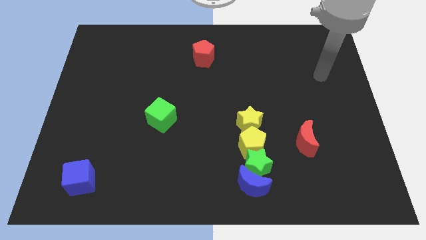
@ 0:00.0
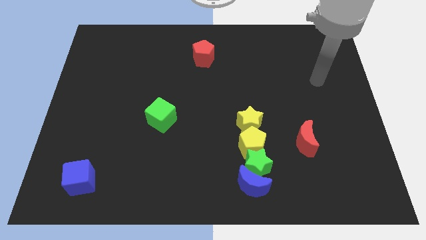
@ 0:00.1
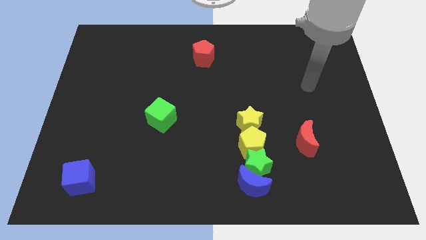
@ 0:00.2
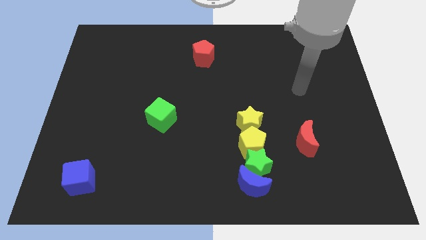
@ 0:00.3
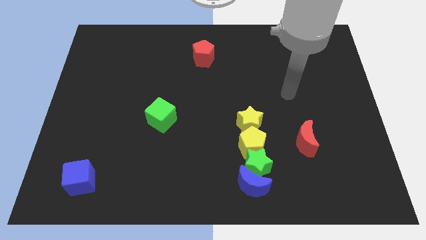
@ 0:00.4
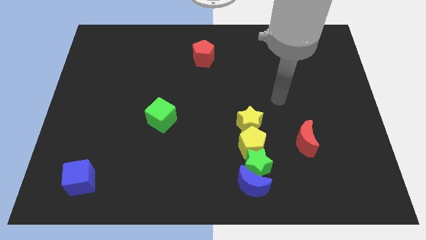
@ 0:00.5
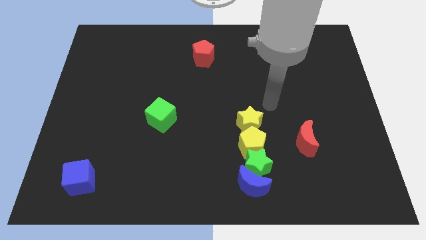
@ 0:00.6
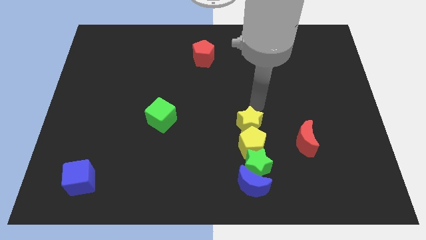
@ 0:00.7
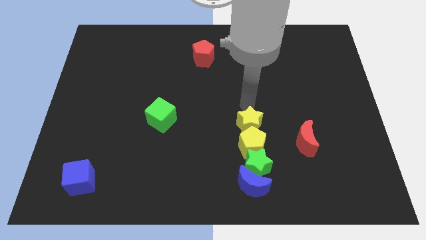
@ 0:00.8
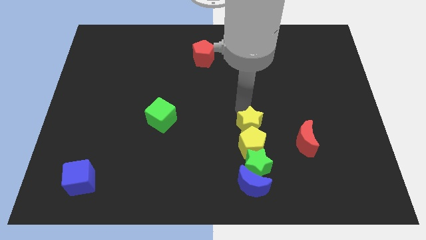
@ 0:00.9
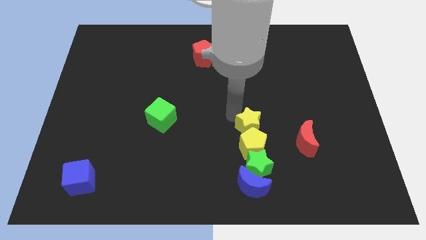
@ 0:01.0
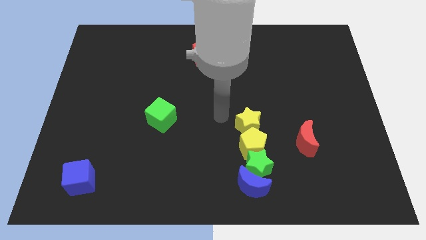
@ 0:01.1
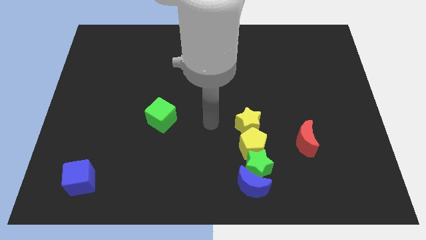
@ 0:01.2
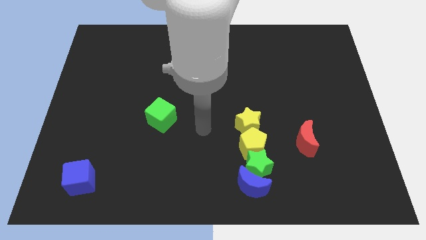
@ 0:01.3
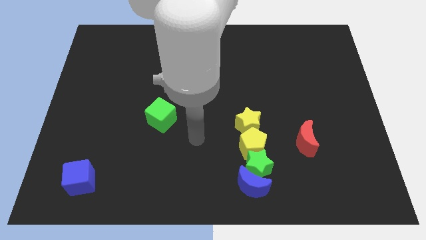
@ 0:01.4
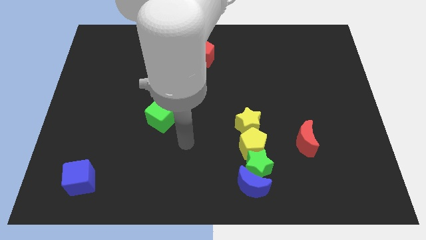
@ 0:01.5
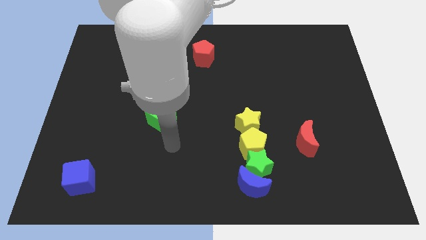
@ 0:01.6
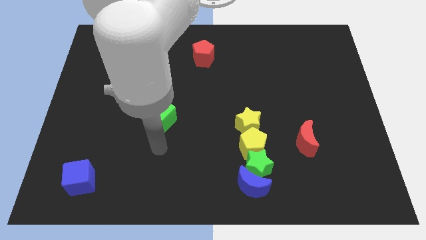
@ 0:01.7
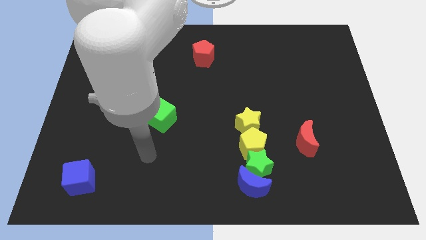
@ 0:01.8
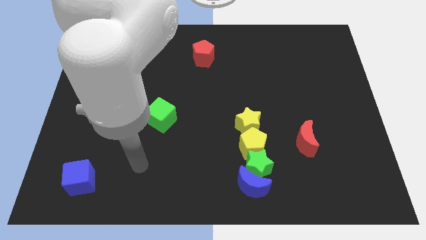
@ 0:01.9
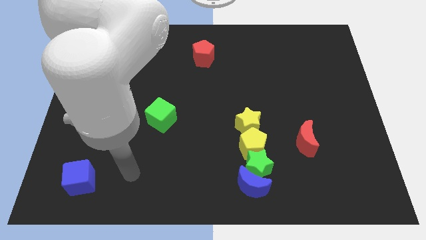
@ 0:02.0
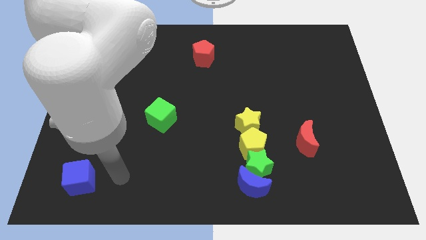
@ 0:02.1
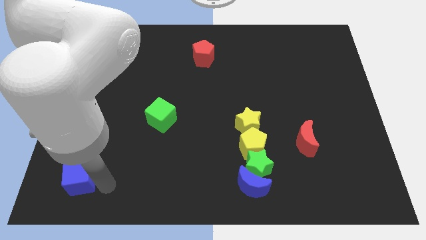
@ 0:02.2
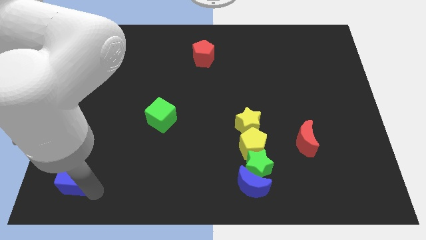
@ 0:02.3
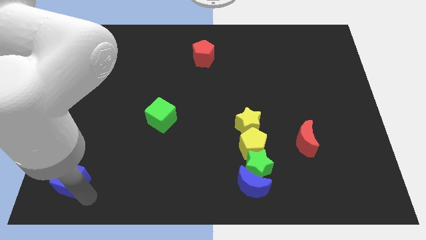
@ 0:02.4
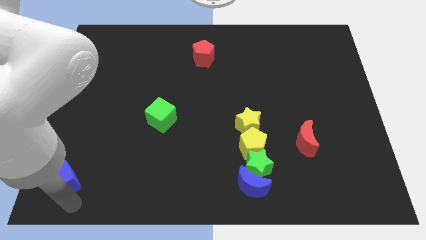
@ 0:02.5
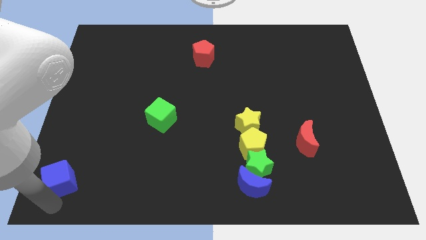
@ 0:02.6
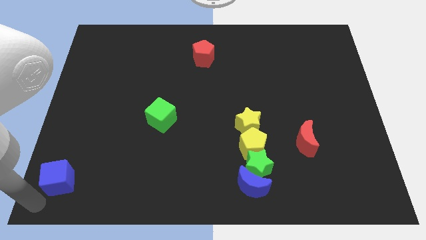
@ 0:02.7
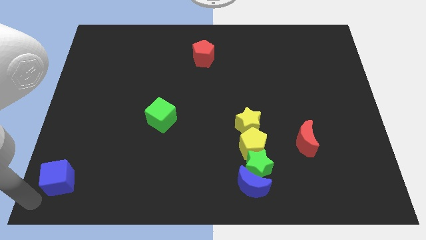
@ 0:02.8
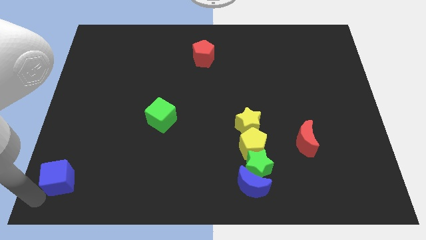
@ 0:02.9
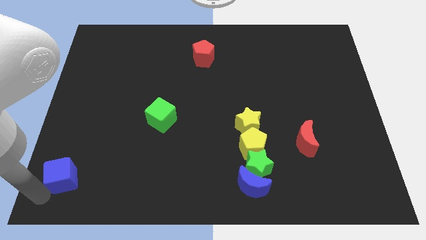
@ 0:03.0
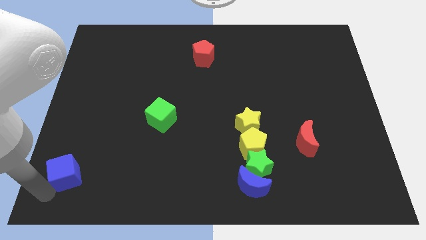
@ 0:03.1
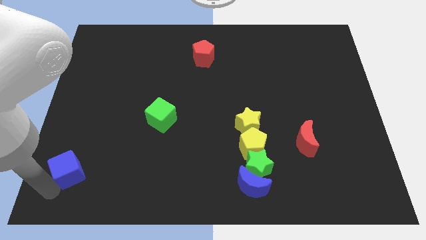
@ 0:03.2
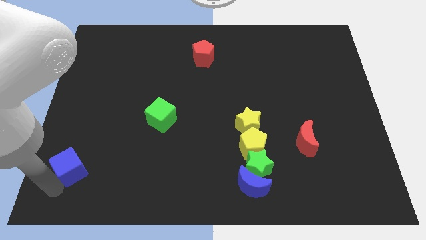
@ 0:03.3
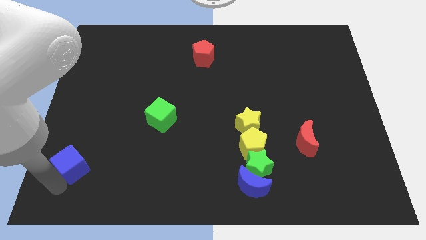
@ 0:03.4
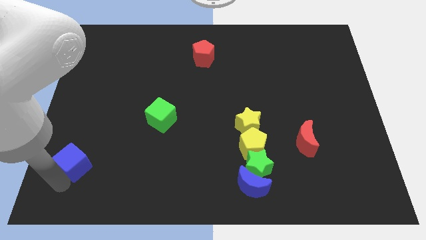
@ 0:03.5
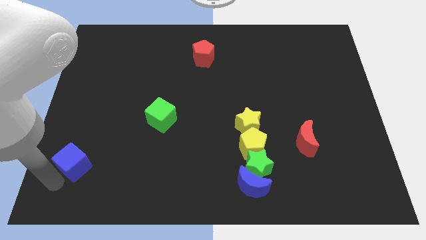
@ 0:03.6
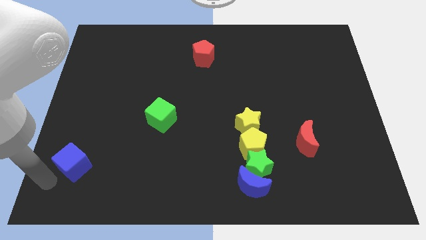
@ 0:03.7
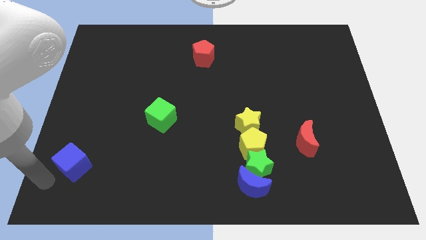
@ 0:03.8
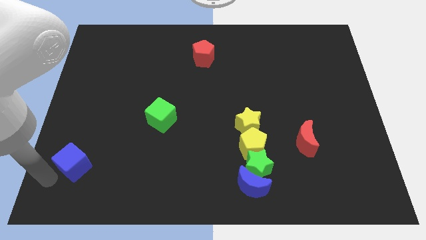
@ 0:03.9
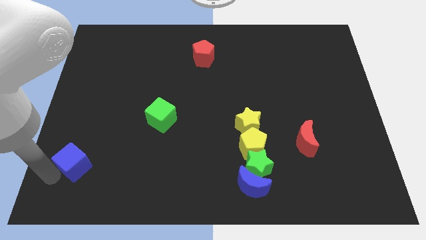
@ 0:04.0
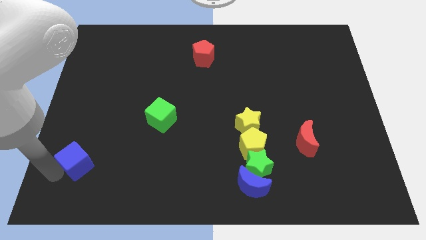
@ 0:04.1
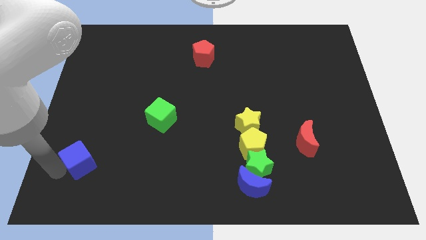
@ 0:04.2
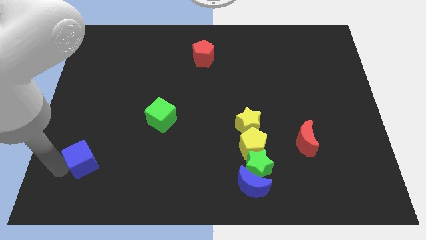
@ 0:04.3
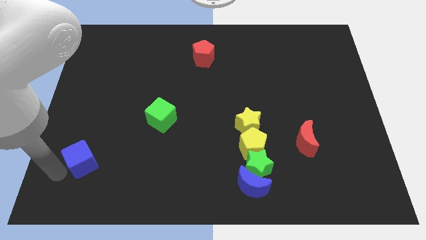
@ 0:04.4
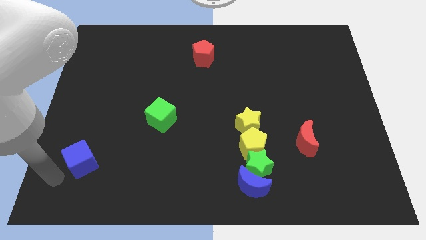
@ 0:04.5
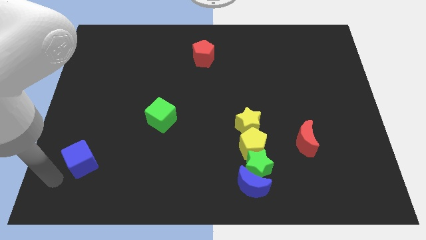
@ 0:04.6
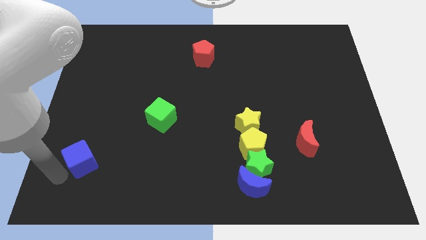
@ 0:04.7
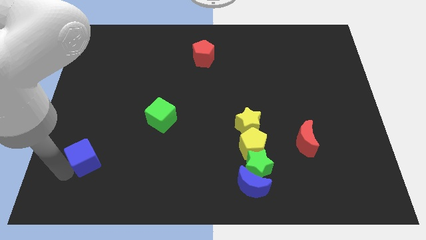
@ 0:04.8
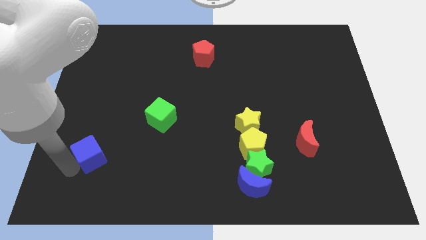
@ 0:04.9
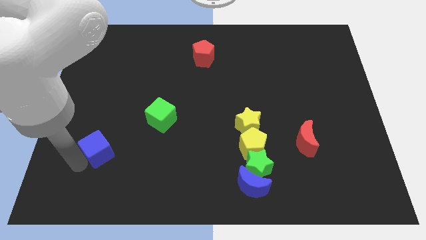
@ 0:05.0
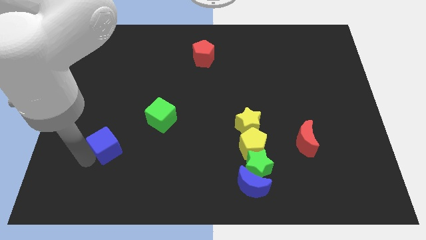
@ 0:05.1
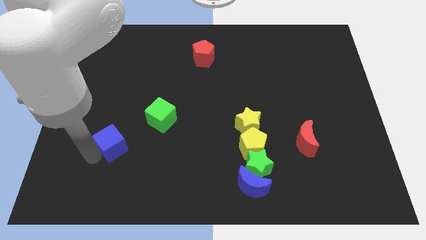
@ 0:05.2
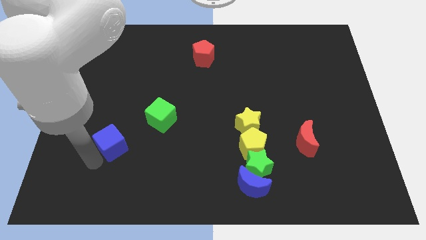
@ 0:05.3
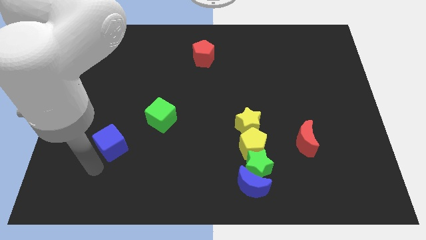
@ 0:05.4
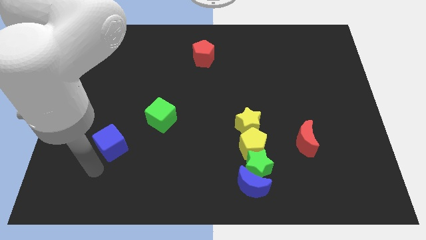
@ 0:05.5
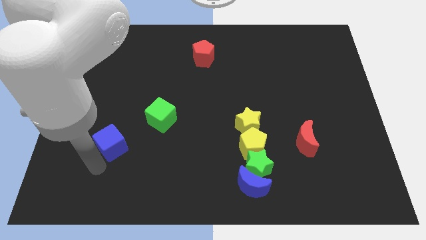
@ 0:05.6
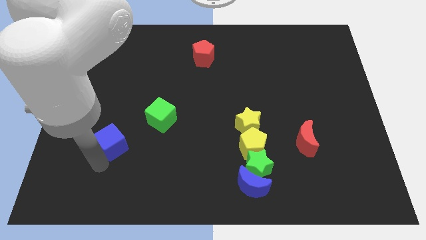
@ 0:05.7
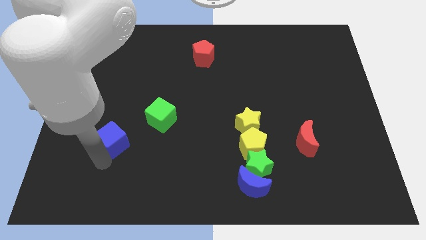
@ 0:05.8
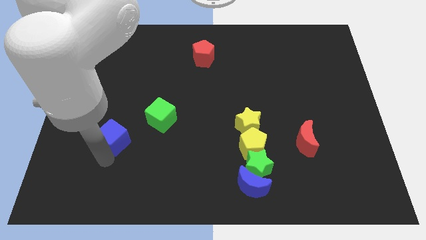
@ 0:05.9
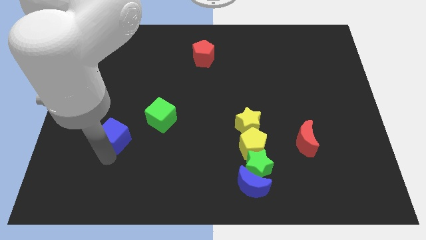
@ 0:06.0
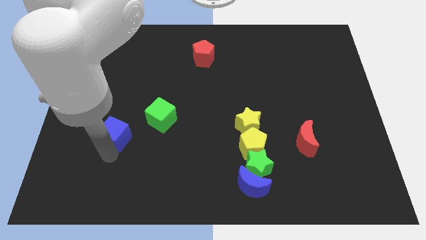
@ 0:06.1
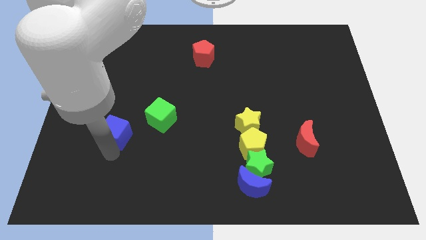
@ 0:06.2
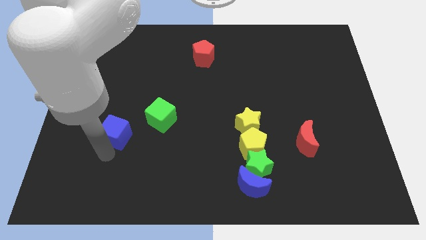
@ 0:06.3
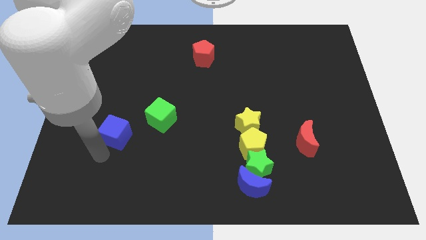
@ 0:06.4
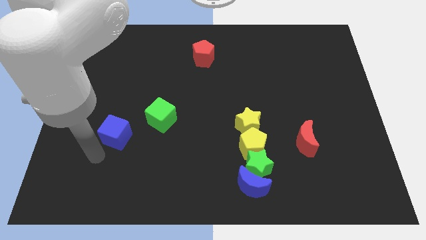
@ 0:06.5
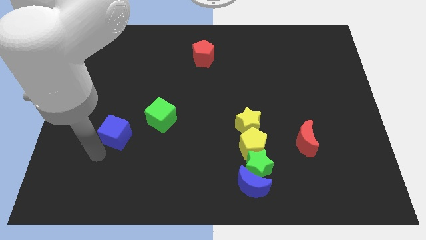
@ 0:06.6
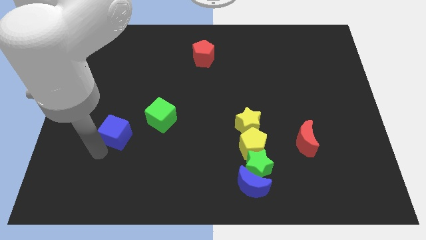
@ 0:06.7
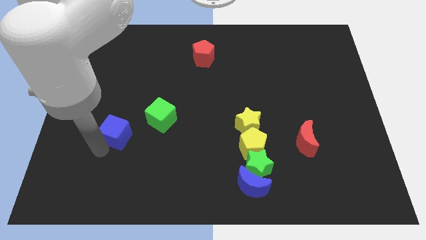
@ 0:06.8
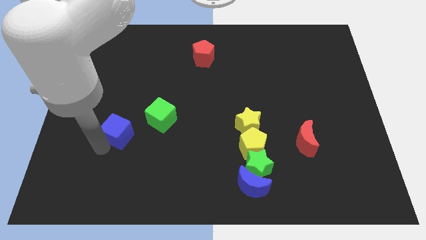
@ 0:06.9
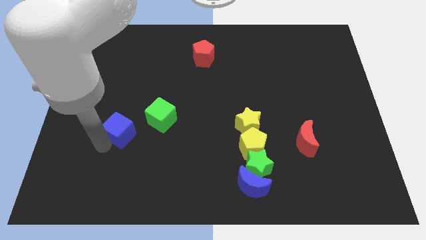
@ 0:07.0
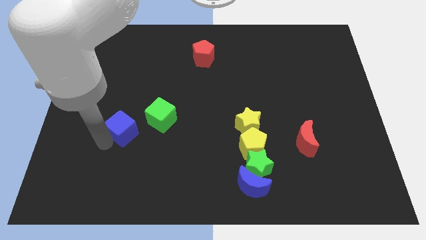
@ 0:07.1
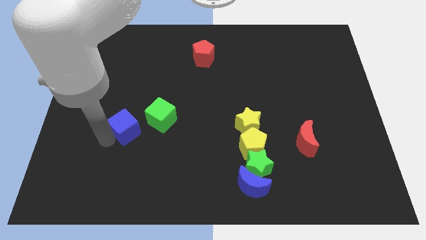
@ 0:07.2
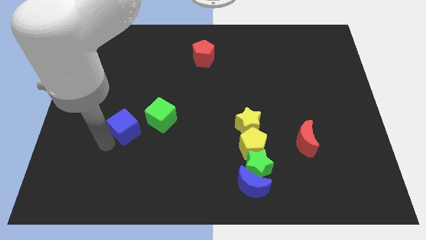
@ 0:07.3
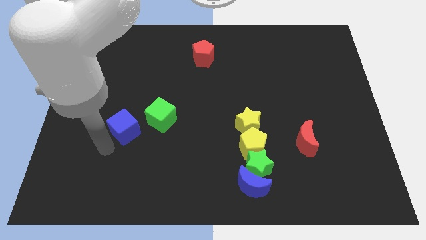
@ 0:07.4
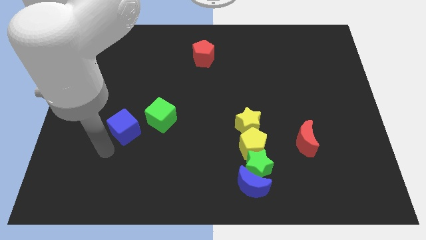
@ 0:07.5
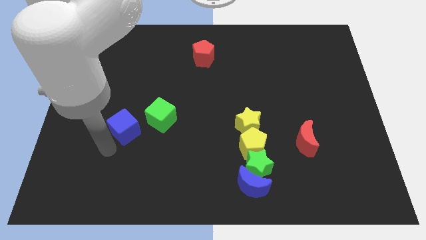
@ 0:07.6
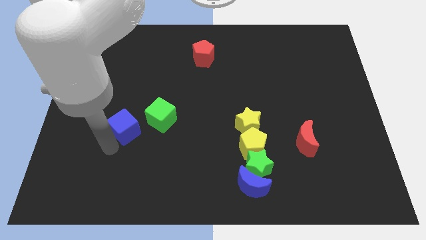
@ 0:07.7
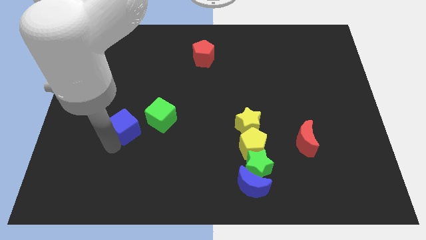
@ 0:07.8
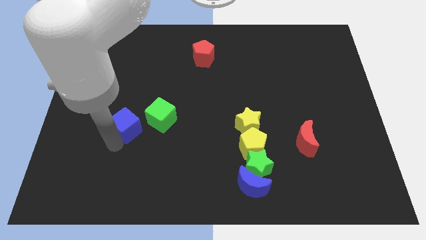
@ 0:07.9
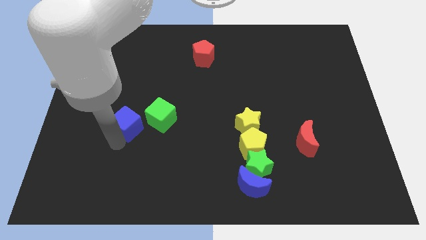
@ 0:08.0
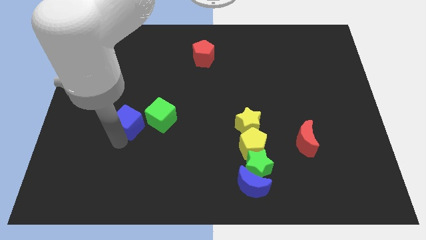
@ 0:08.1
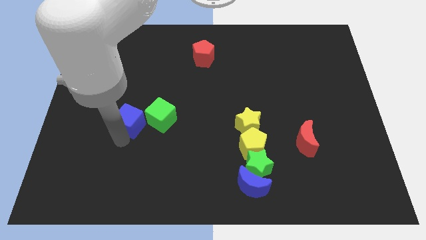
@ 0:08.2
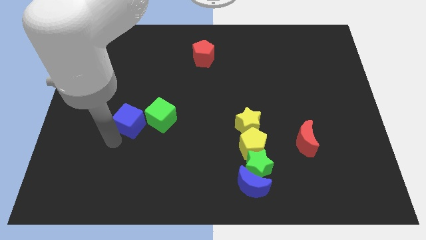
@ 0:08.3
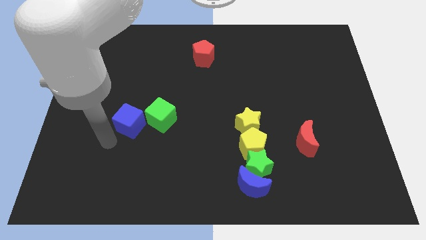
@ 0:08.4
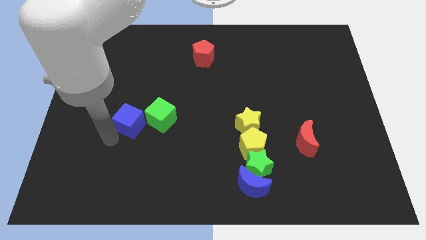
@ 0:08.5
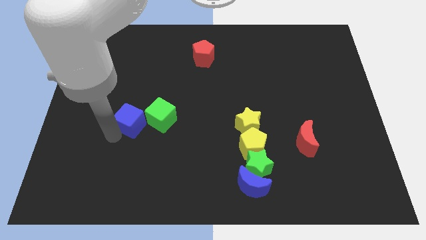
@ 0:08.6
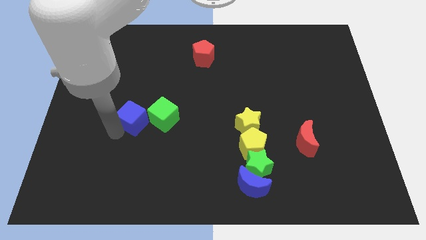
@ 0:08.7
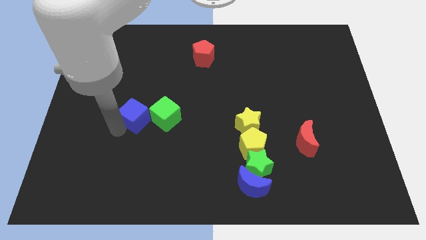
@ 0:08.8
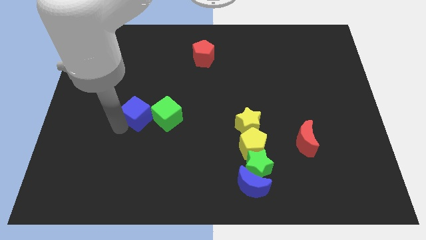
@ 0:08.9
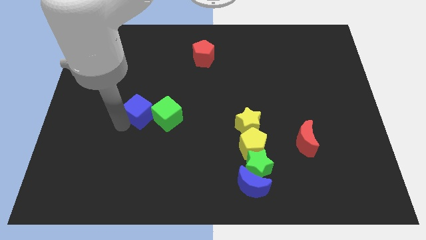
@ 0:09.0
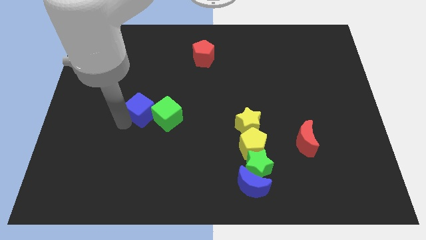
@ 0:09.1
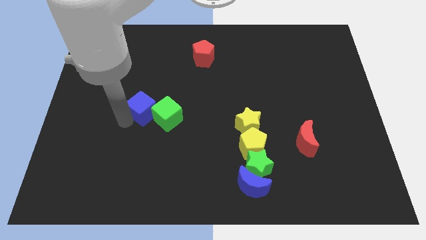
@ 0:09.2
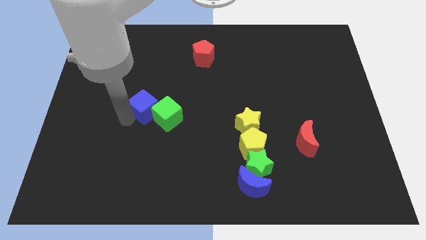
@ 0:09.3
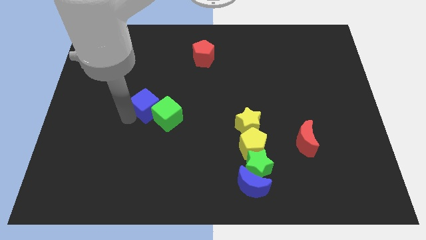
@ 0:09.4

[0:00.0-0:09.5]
push the blue cube up and right
